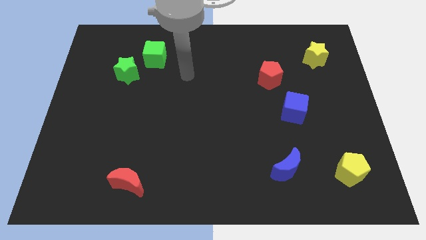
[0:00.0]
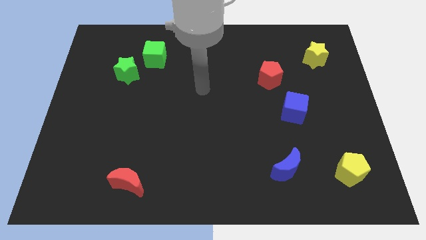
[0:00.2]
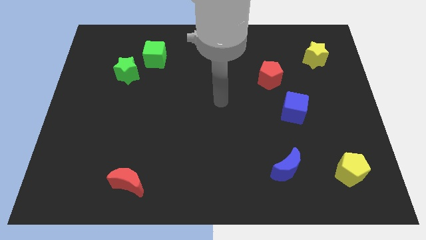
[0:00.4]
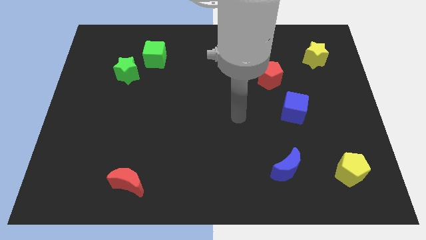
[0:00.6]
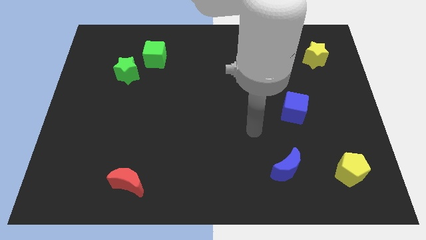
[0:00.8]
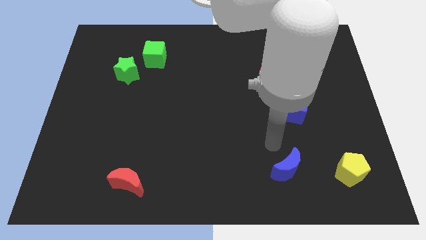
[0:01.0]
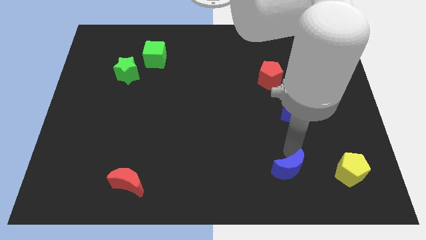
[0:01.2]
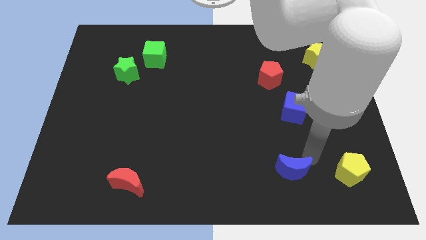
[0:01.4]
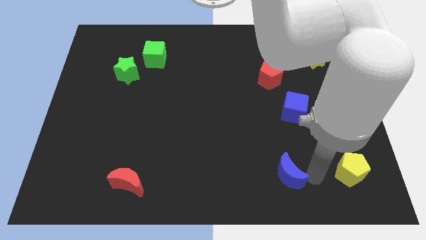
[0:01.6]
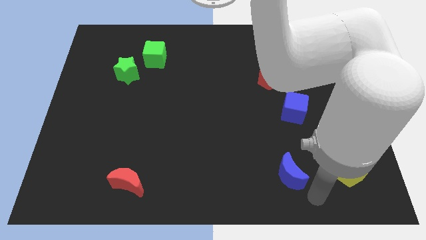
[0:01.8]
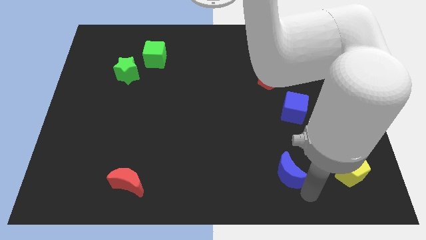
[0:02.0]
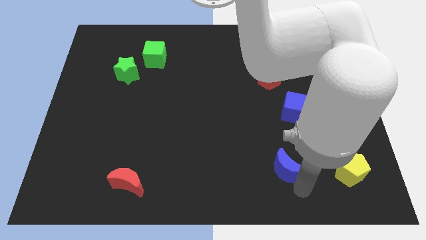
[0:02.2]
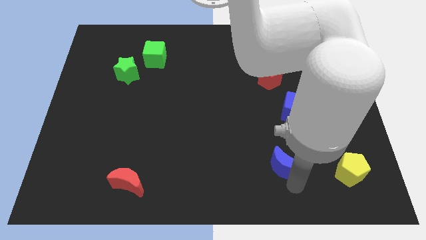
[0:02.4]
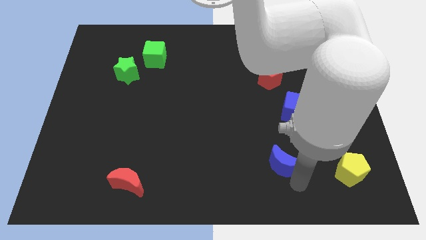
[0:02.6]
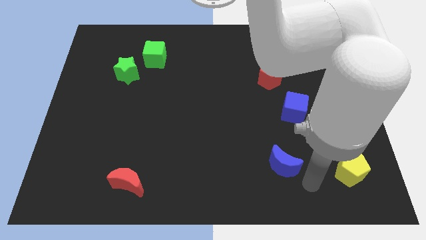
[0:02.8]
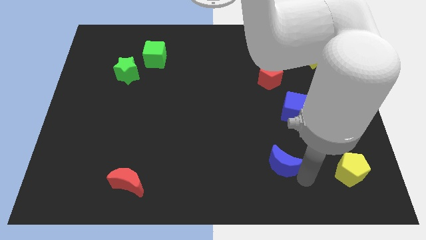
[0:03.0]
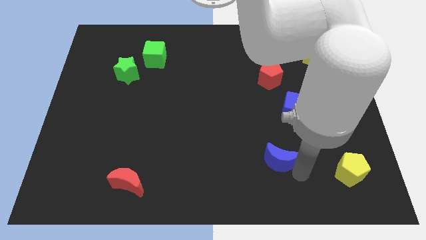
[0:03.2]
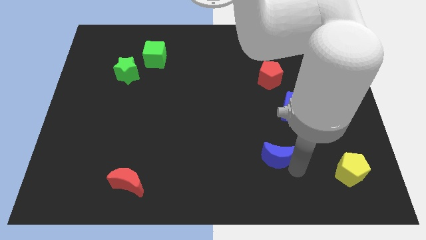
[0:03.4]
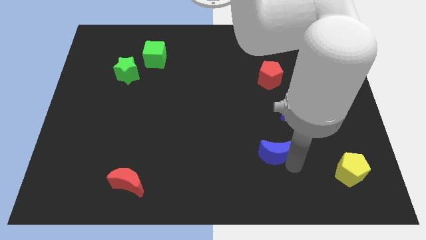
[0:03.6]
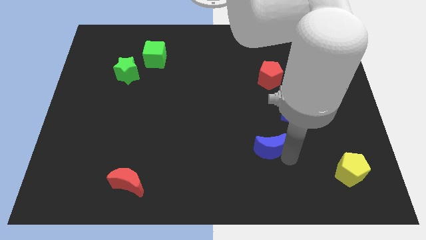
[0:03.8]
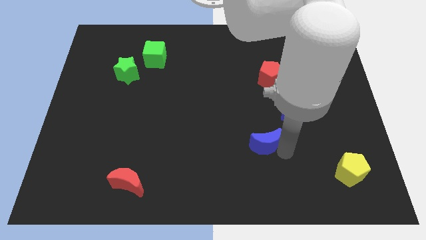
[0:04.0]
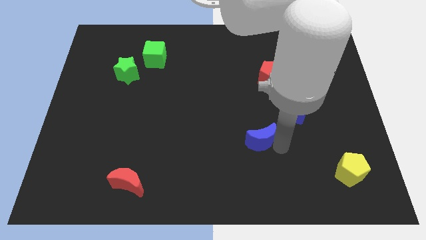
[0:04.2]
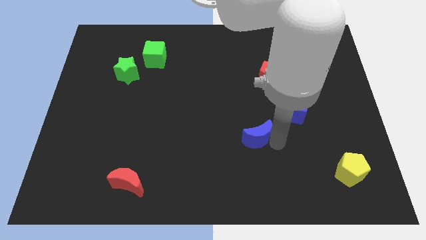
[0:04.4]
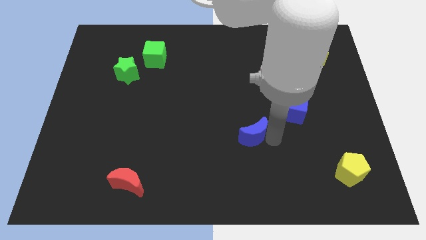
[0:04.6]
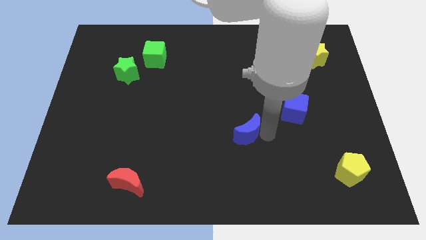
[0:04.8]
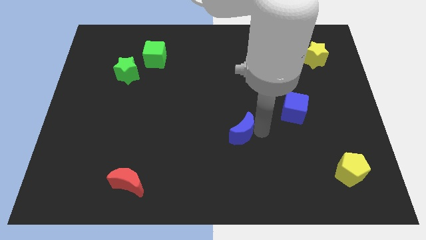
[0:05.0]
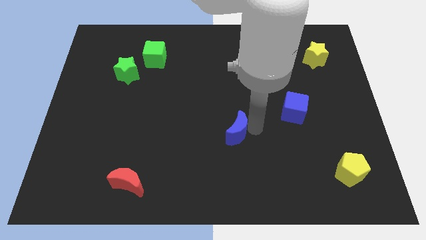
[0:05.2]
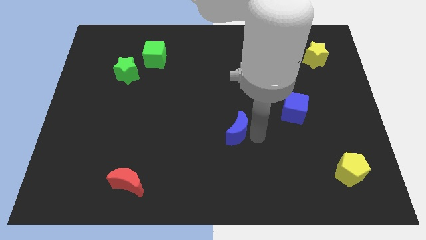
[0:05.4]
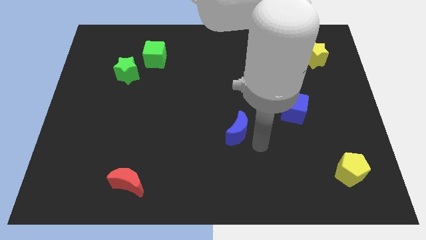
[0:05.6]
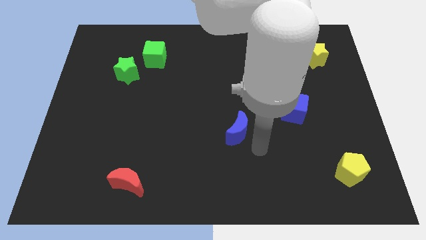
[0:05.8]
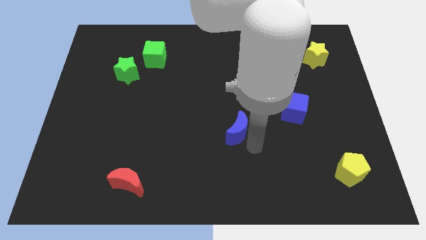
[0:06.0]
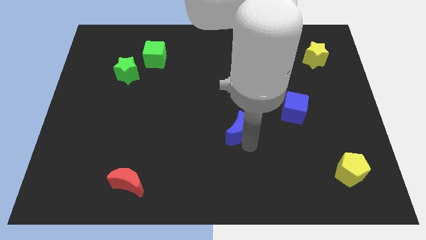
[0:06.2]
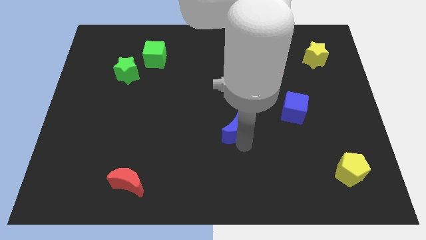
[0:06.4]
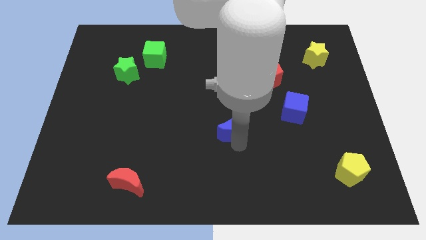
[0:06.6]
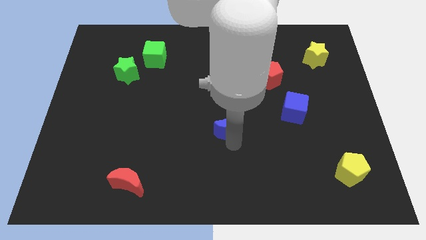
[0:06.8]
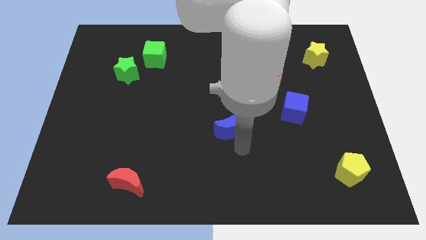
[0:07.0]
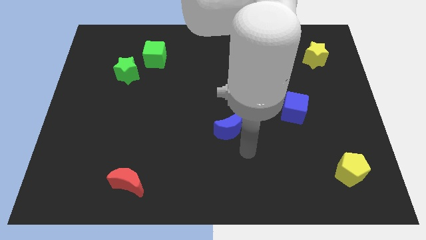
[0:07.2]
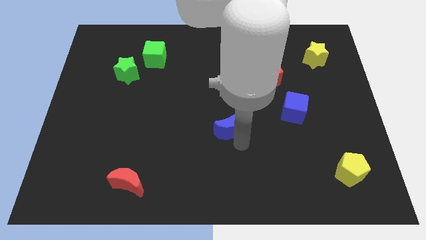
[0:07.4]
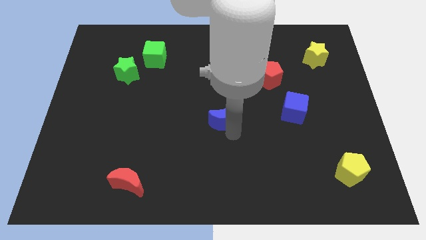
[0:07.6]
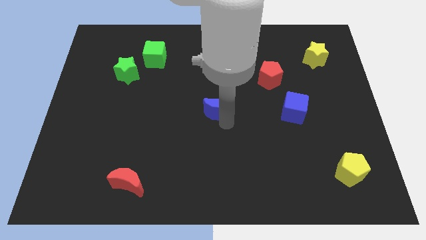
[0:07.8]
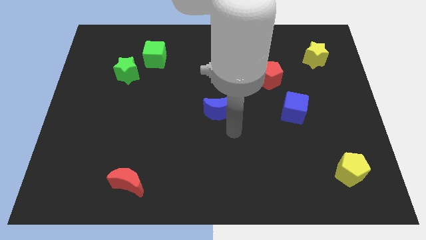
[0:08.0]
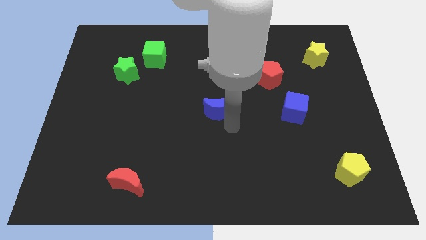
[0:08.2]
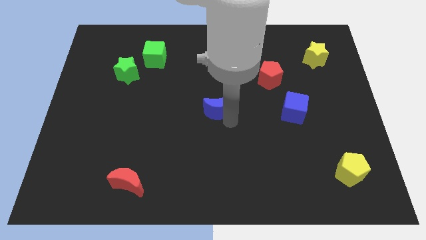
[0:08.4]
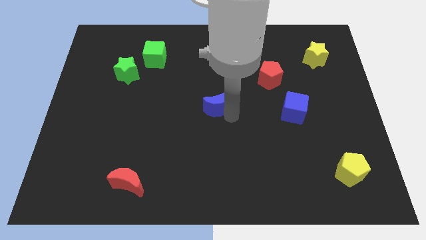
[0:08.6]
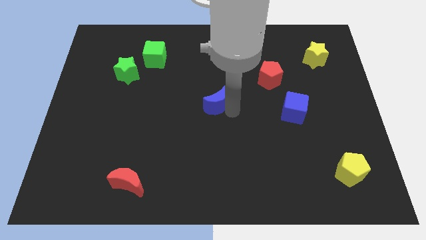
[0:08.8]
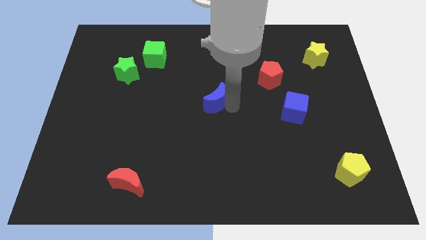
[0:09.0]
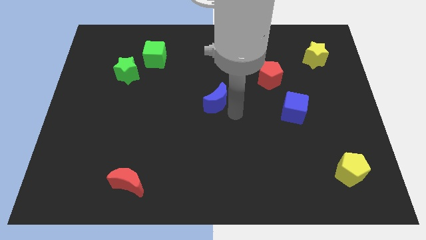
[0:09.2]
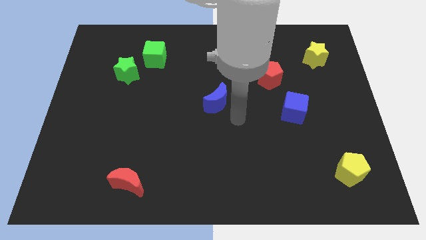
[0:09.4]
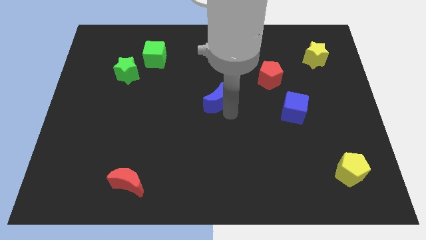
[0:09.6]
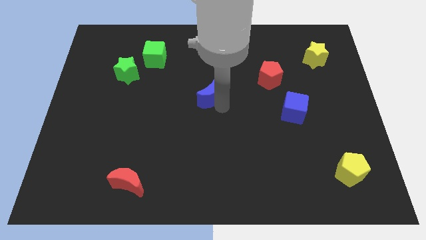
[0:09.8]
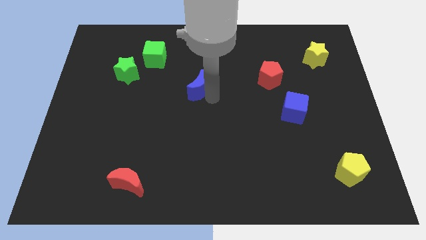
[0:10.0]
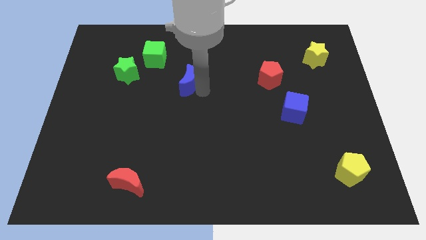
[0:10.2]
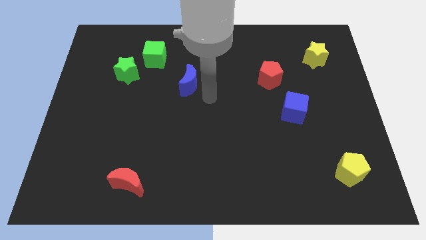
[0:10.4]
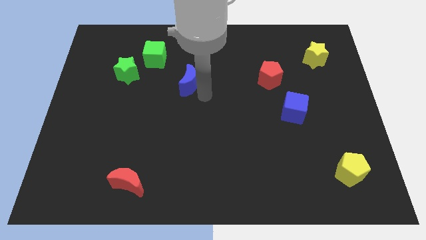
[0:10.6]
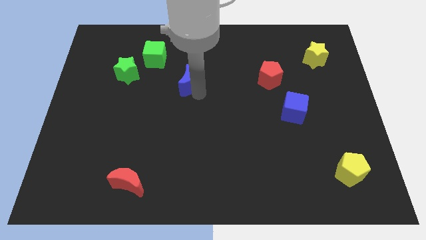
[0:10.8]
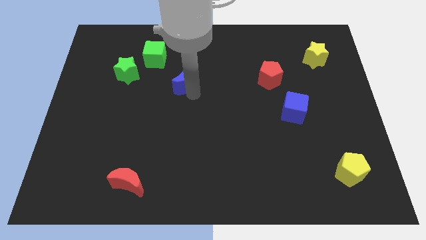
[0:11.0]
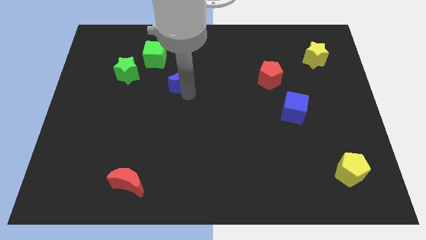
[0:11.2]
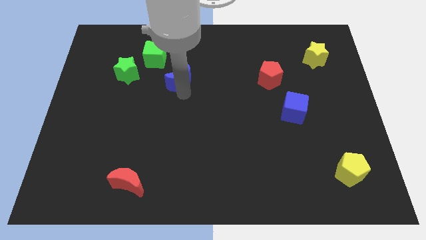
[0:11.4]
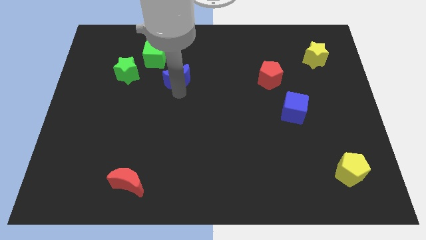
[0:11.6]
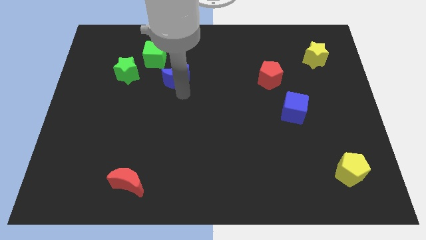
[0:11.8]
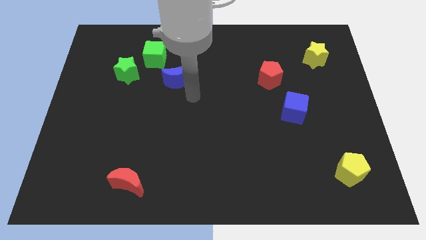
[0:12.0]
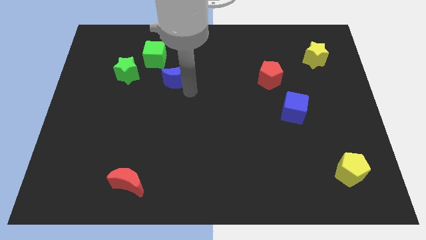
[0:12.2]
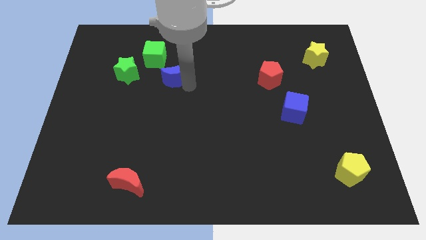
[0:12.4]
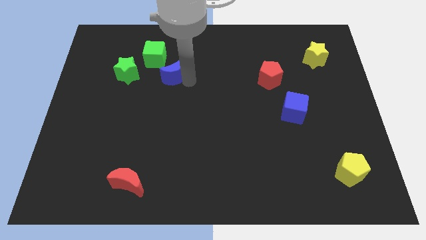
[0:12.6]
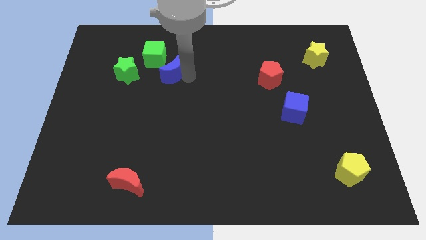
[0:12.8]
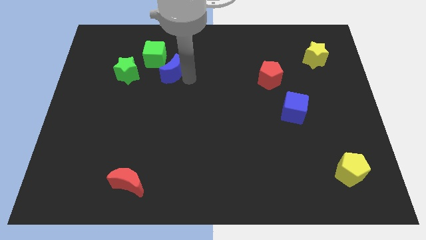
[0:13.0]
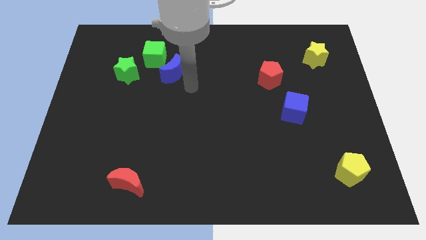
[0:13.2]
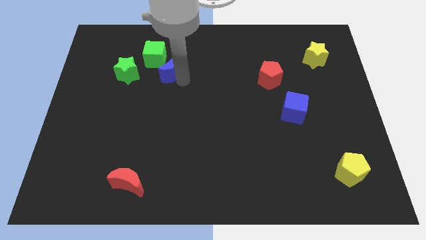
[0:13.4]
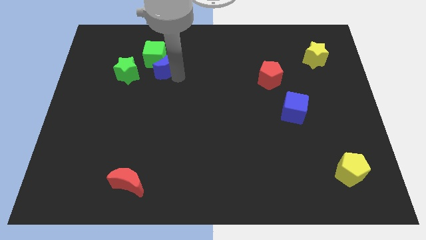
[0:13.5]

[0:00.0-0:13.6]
slide the blue moon close to the green cube

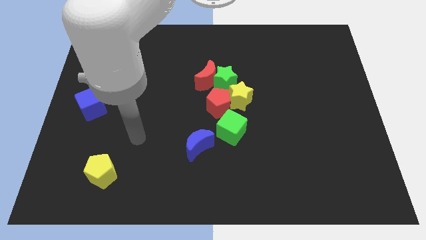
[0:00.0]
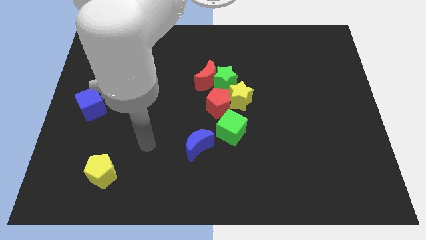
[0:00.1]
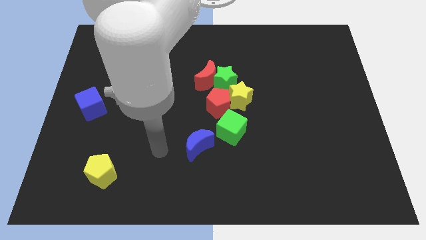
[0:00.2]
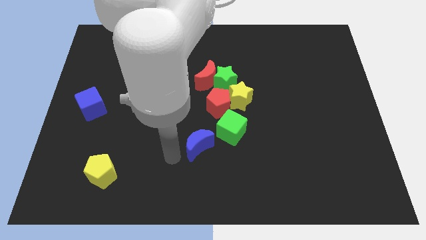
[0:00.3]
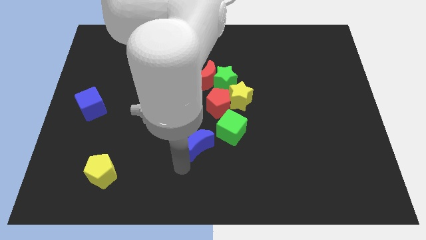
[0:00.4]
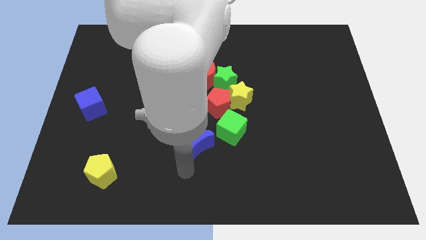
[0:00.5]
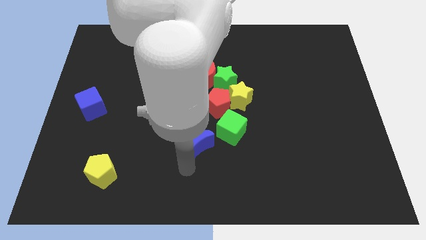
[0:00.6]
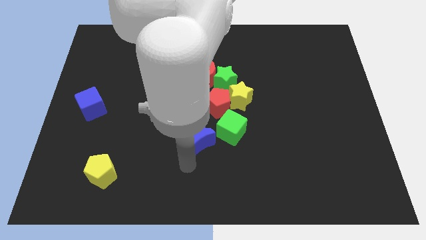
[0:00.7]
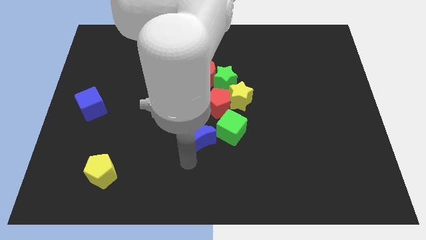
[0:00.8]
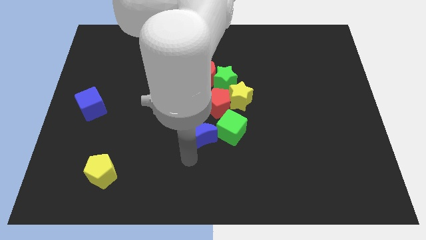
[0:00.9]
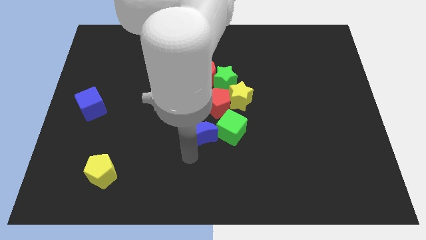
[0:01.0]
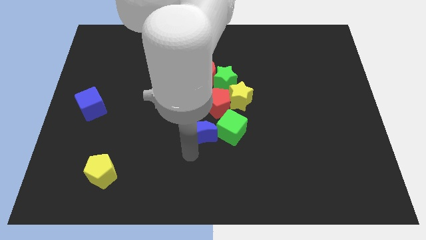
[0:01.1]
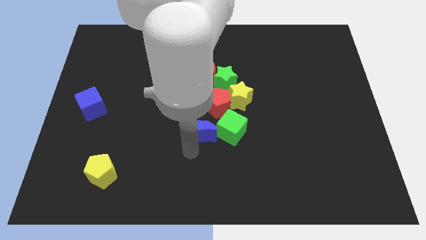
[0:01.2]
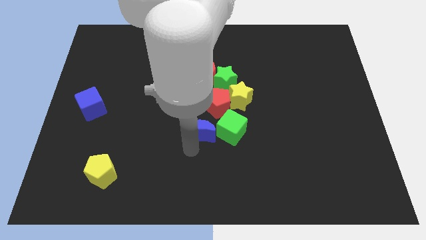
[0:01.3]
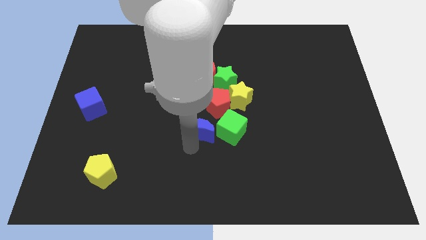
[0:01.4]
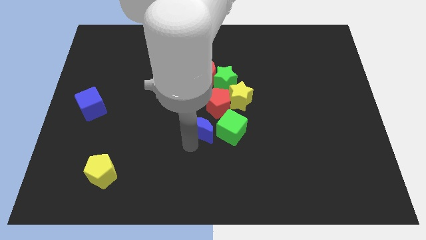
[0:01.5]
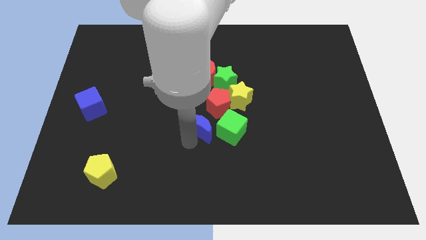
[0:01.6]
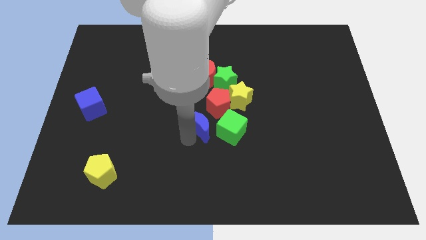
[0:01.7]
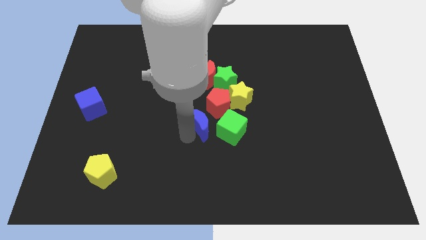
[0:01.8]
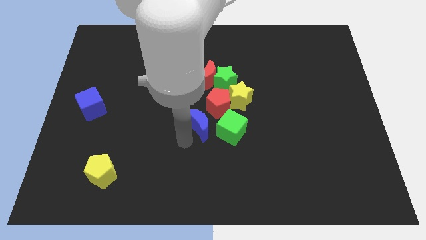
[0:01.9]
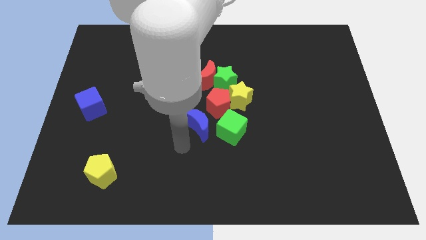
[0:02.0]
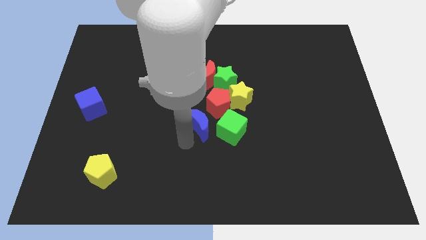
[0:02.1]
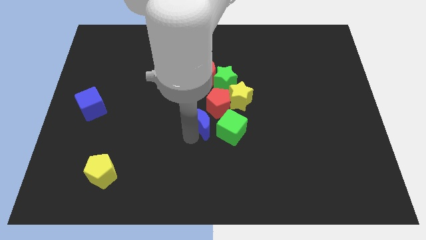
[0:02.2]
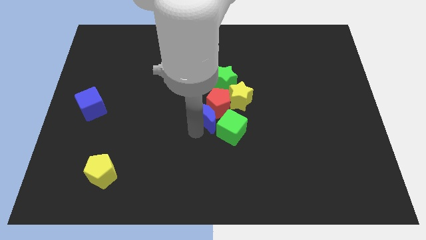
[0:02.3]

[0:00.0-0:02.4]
move the blue moon to the red pentagon
